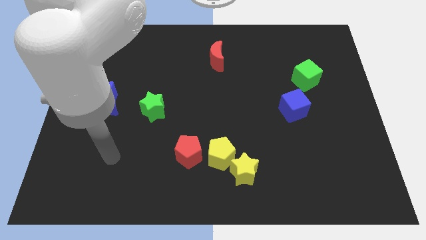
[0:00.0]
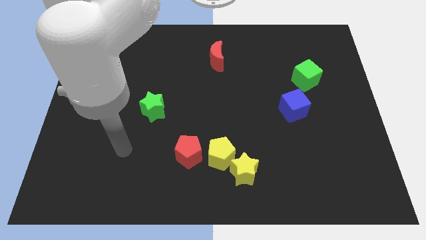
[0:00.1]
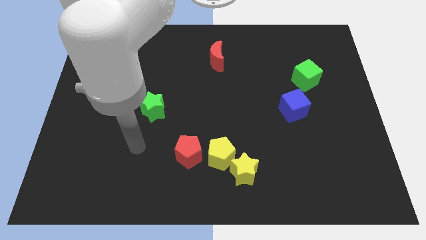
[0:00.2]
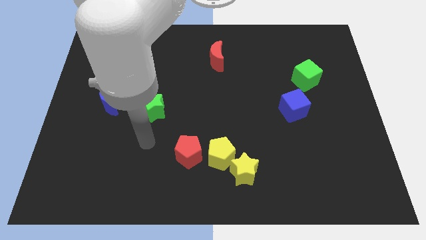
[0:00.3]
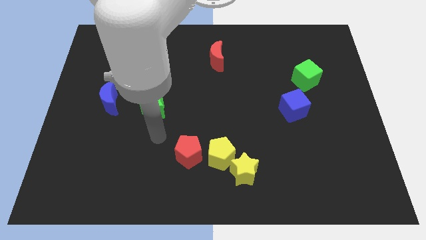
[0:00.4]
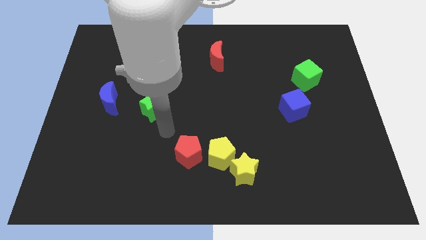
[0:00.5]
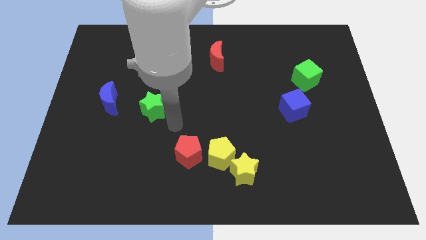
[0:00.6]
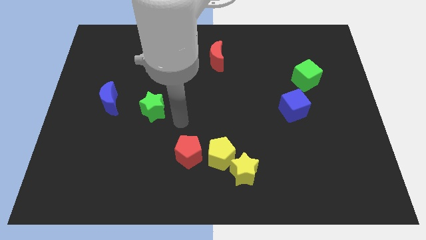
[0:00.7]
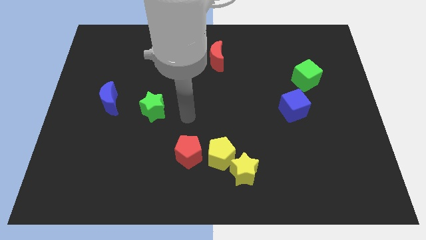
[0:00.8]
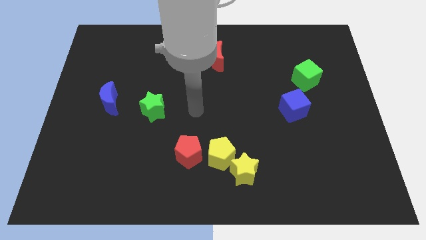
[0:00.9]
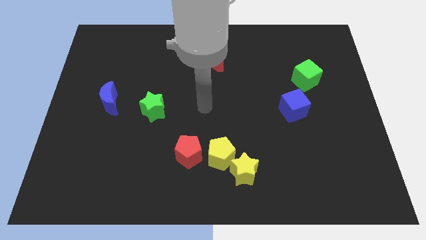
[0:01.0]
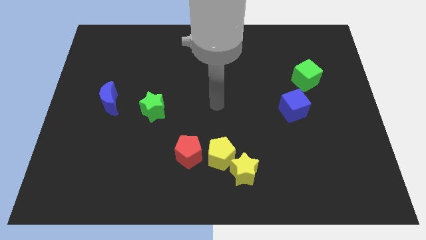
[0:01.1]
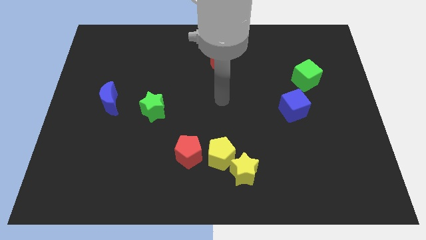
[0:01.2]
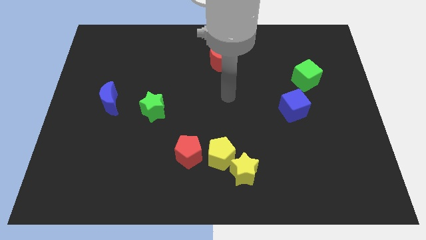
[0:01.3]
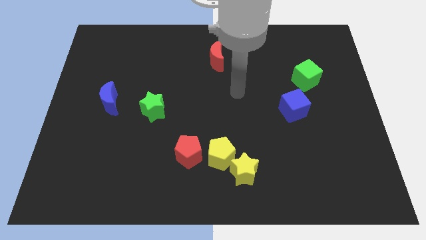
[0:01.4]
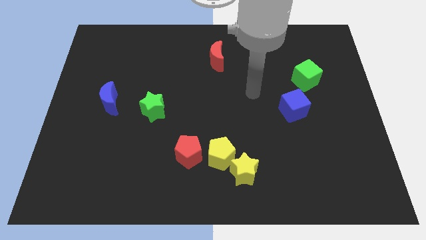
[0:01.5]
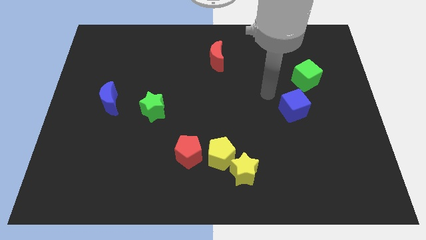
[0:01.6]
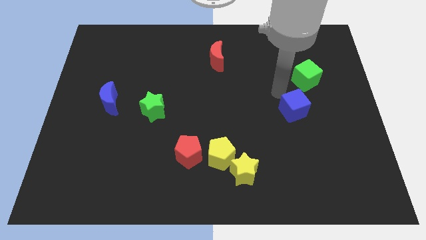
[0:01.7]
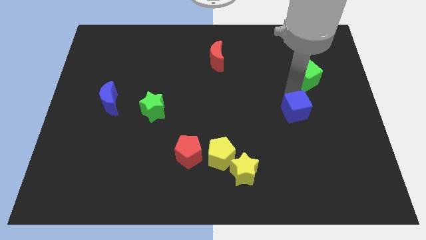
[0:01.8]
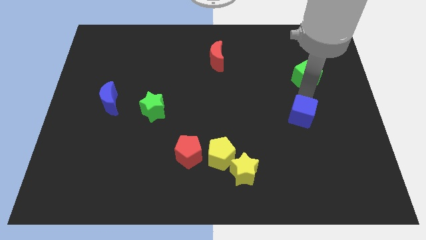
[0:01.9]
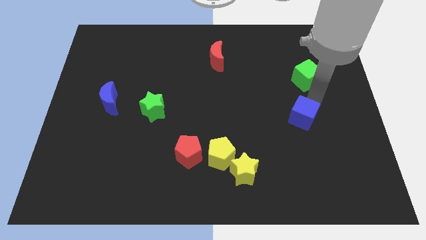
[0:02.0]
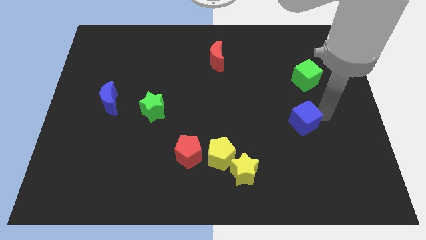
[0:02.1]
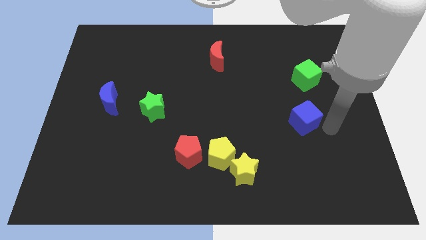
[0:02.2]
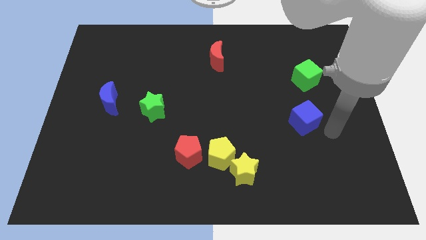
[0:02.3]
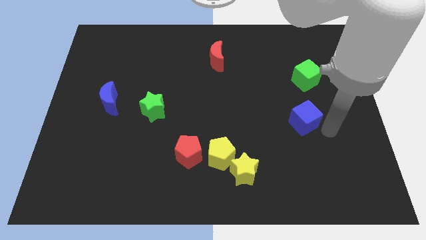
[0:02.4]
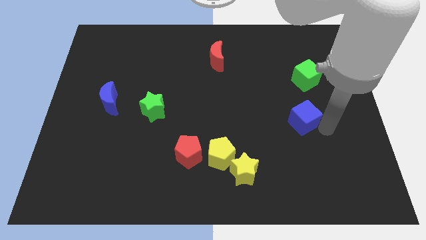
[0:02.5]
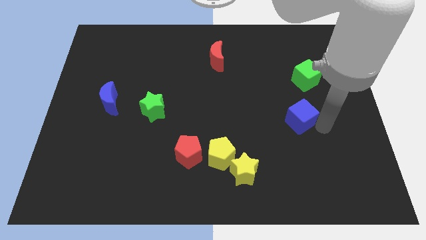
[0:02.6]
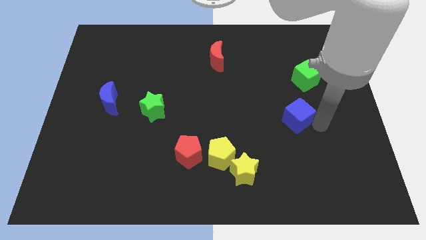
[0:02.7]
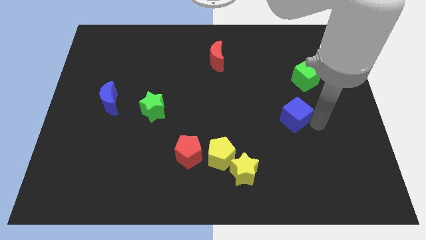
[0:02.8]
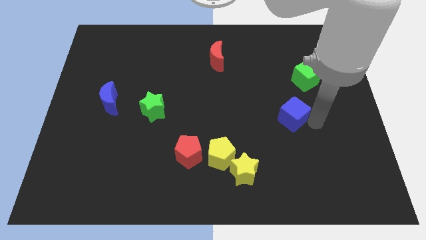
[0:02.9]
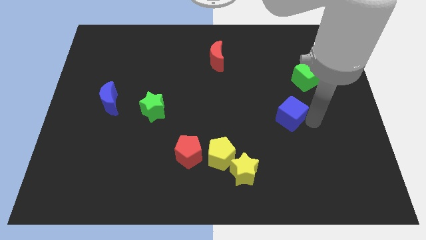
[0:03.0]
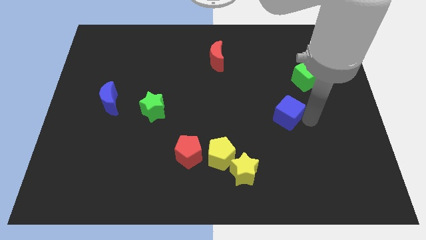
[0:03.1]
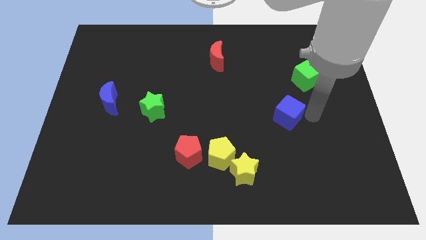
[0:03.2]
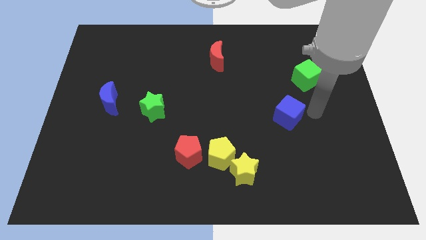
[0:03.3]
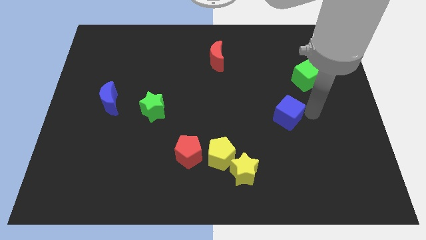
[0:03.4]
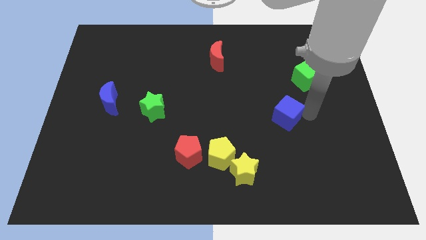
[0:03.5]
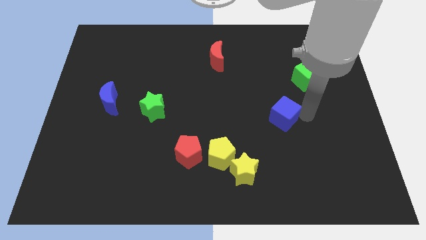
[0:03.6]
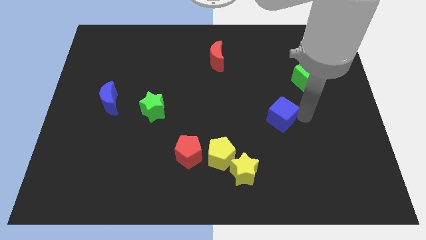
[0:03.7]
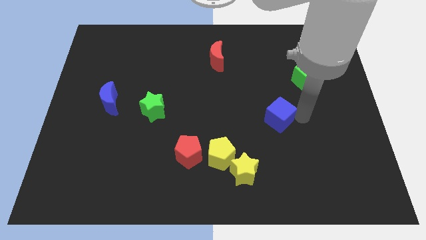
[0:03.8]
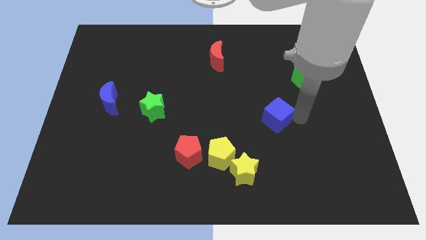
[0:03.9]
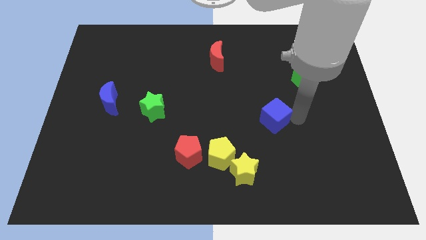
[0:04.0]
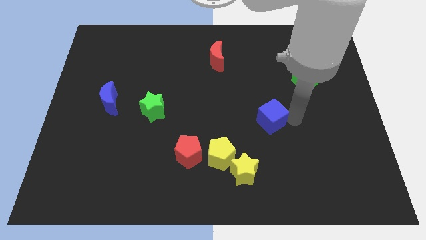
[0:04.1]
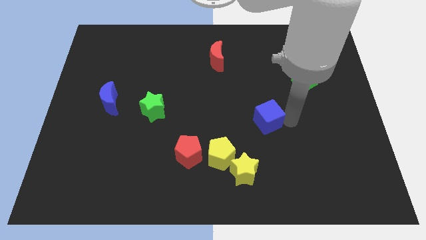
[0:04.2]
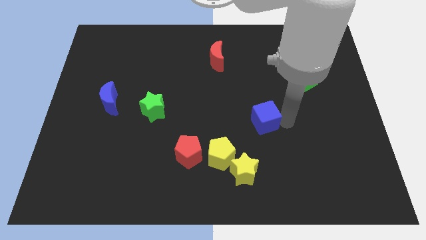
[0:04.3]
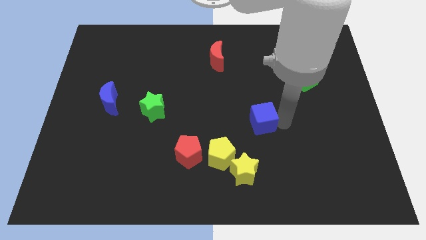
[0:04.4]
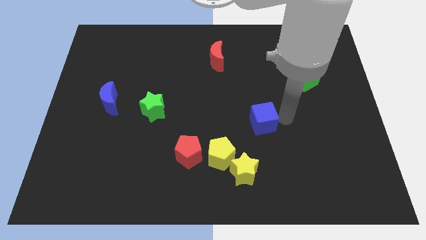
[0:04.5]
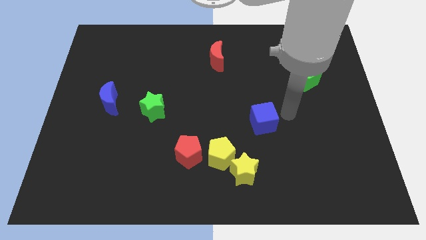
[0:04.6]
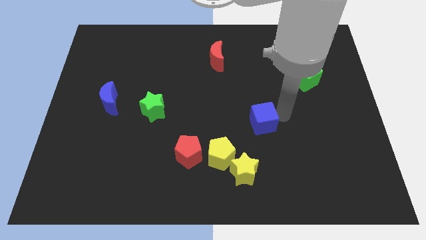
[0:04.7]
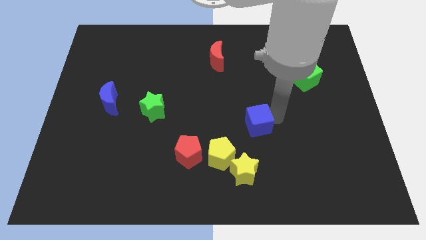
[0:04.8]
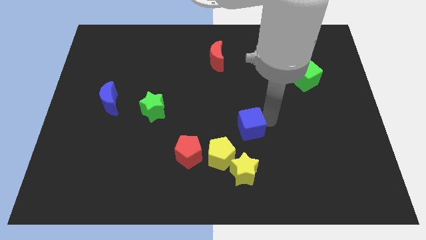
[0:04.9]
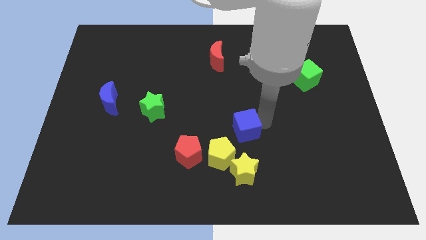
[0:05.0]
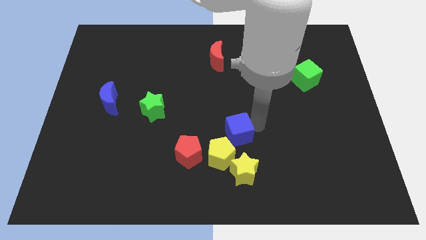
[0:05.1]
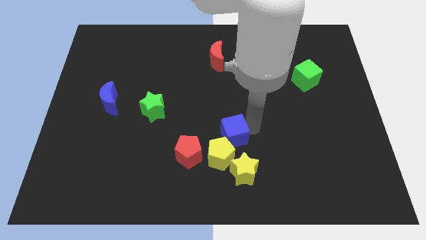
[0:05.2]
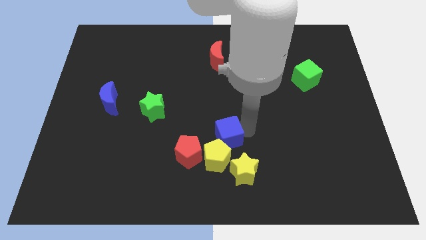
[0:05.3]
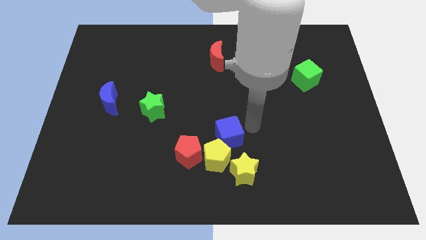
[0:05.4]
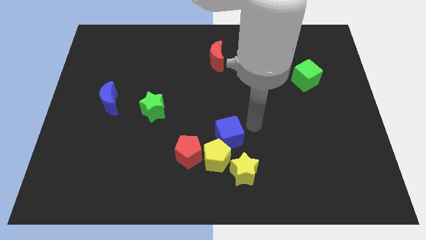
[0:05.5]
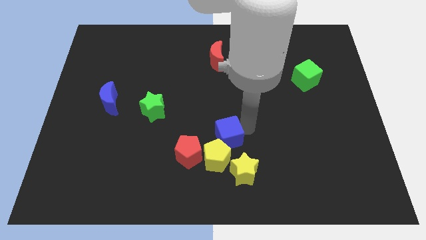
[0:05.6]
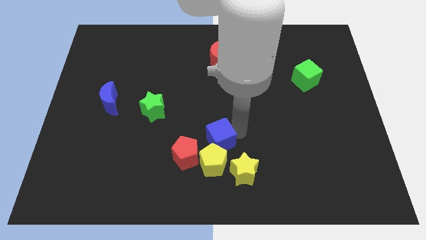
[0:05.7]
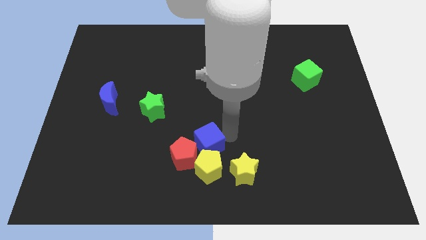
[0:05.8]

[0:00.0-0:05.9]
put the blue cube close to the red pentagon

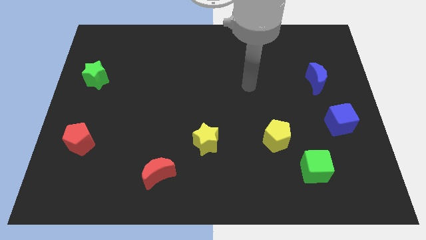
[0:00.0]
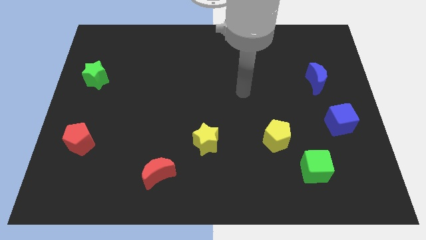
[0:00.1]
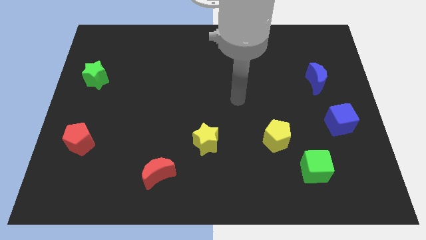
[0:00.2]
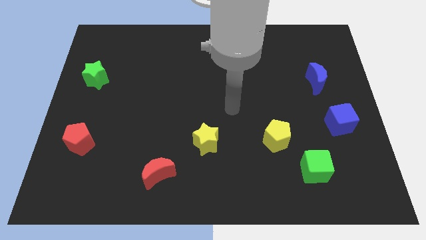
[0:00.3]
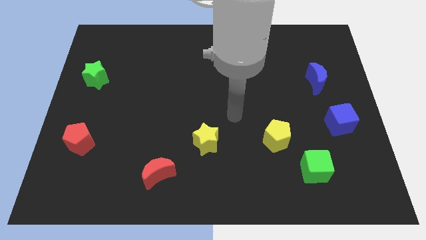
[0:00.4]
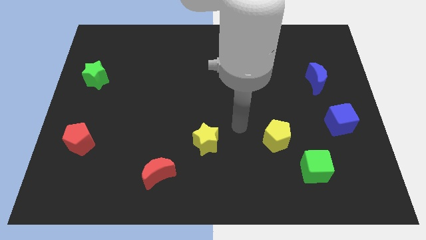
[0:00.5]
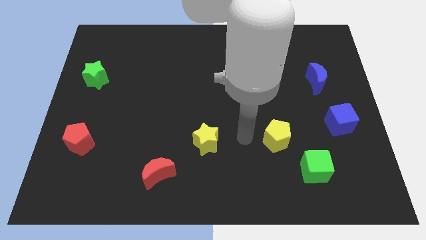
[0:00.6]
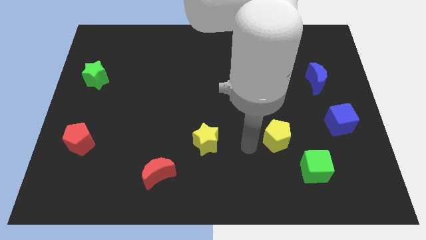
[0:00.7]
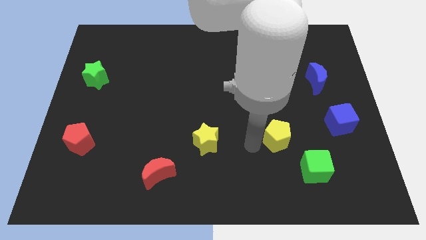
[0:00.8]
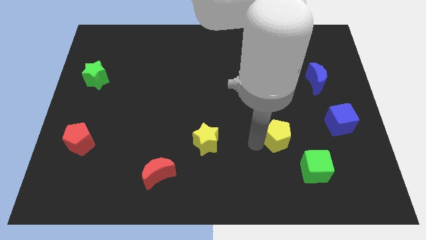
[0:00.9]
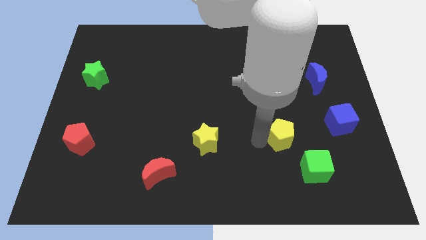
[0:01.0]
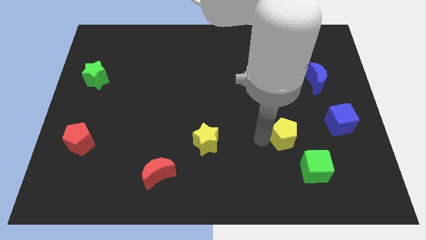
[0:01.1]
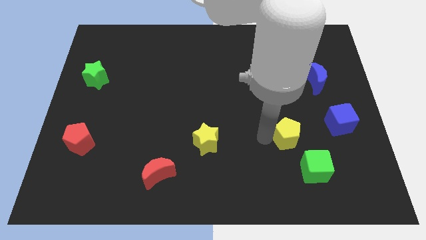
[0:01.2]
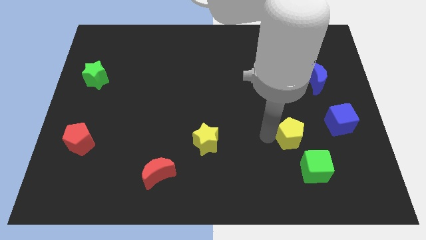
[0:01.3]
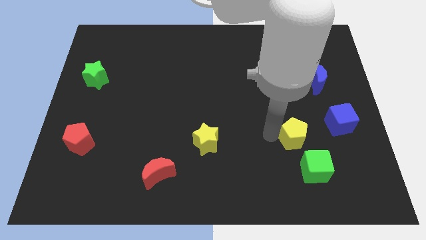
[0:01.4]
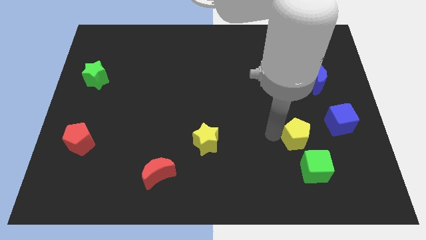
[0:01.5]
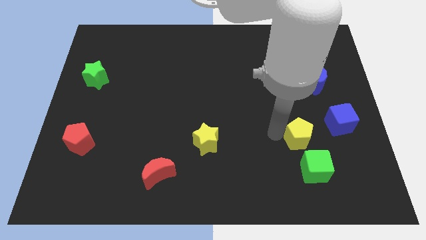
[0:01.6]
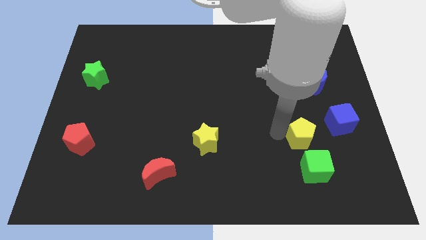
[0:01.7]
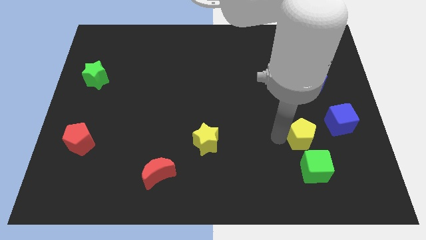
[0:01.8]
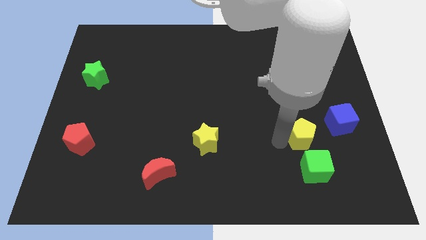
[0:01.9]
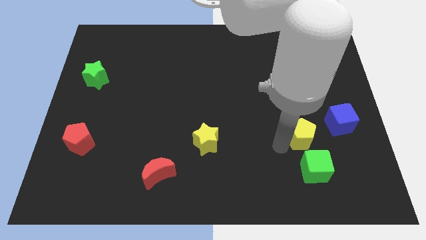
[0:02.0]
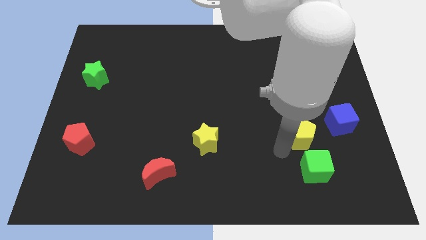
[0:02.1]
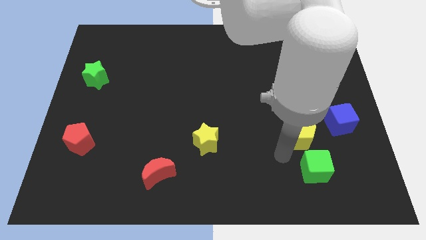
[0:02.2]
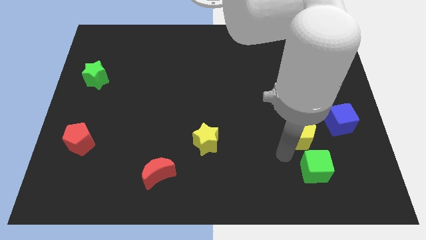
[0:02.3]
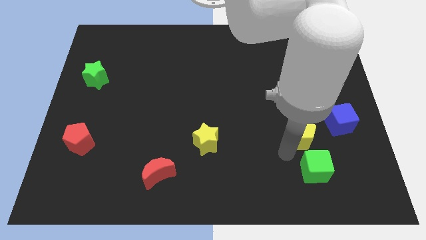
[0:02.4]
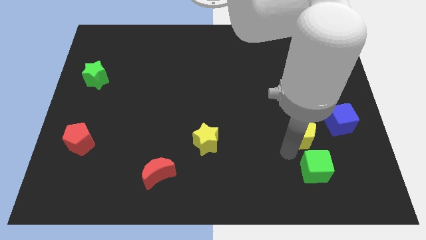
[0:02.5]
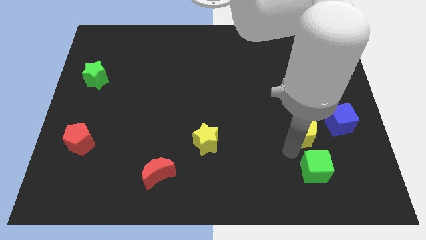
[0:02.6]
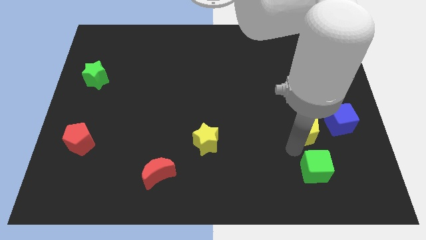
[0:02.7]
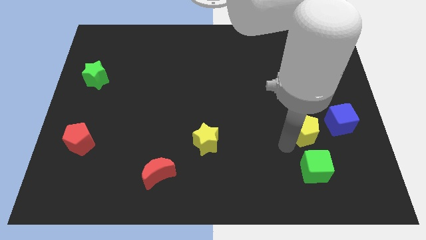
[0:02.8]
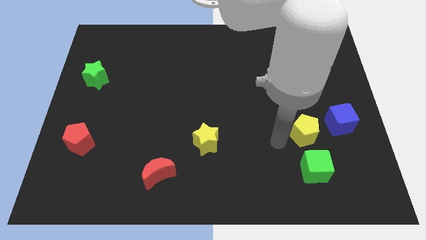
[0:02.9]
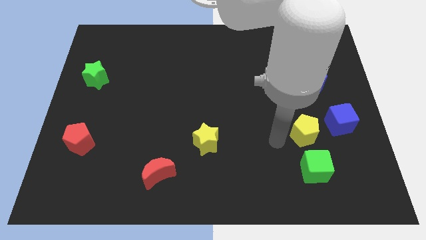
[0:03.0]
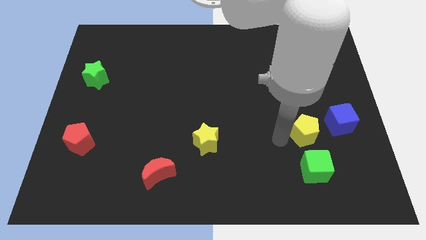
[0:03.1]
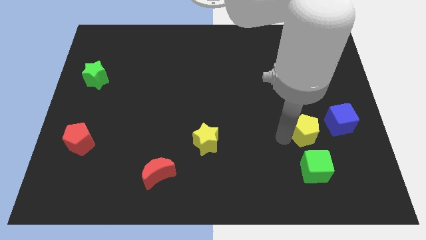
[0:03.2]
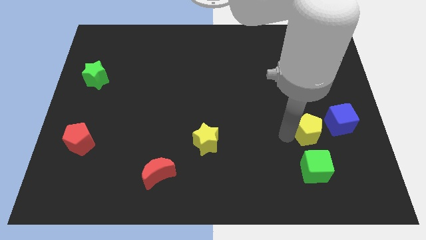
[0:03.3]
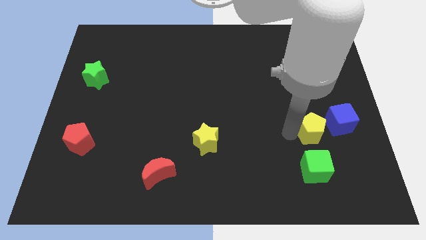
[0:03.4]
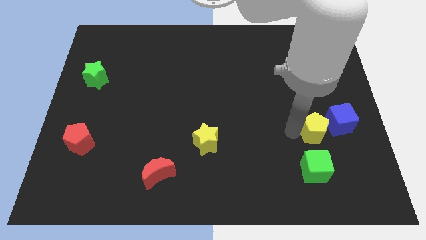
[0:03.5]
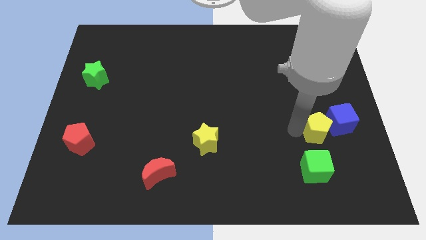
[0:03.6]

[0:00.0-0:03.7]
push the yellow pentagon towards the blue cube
